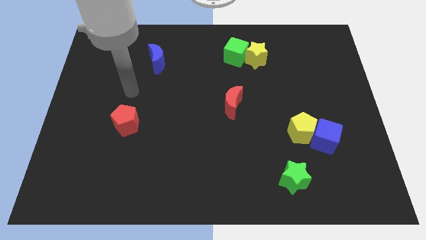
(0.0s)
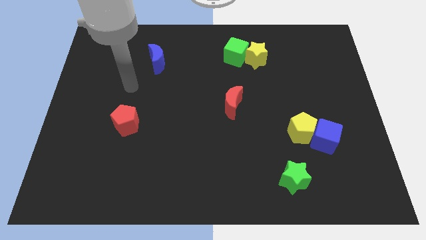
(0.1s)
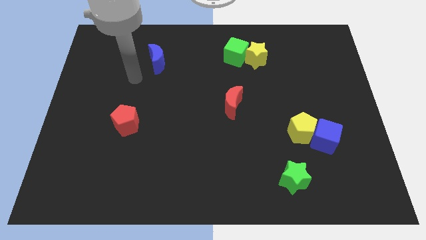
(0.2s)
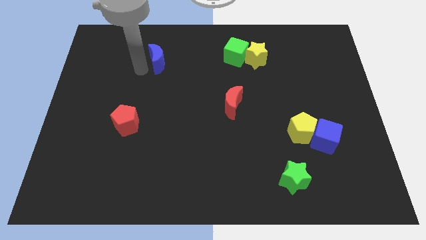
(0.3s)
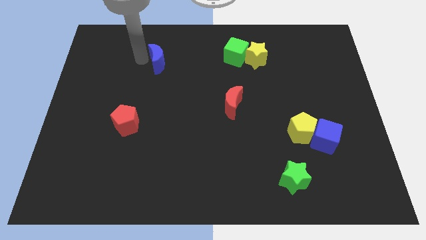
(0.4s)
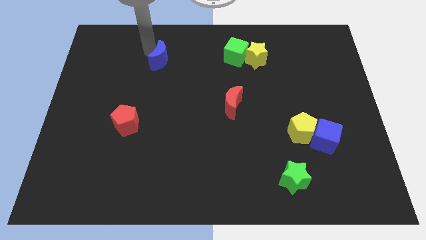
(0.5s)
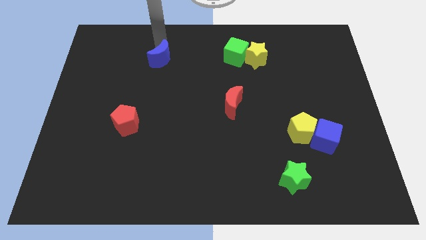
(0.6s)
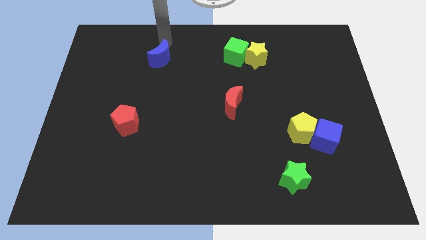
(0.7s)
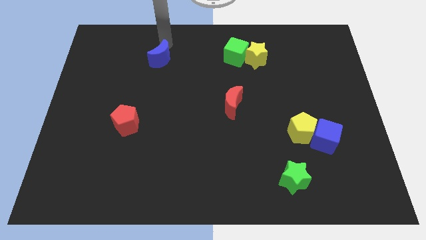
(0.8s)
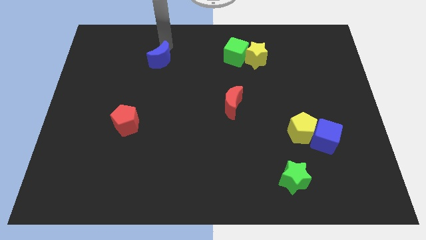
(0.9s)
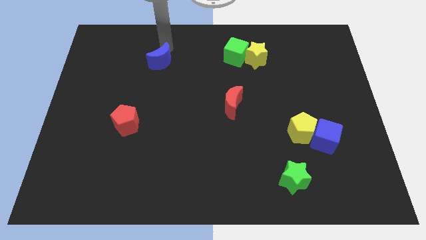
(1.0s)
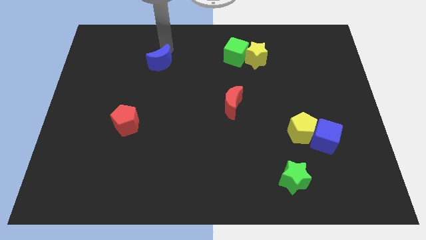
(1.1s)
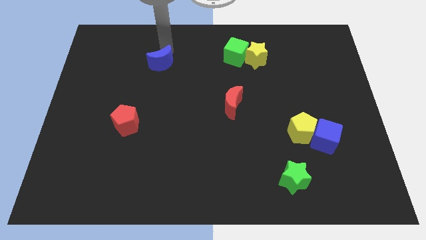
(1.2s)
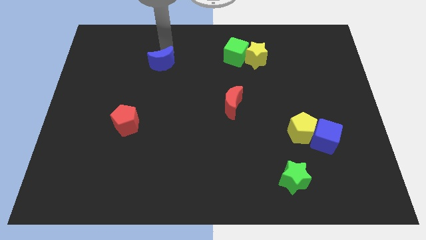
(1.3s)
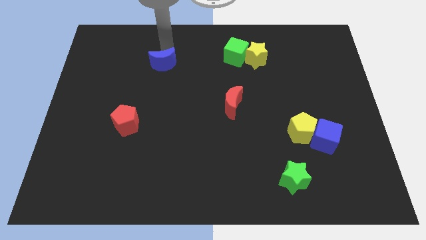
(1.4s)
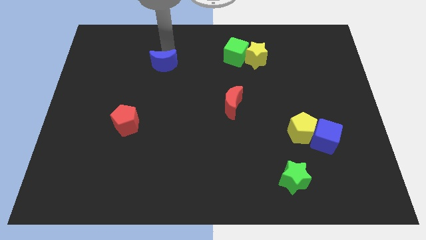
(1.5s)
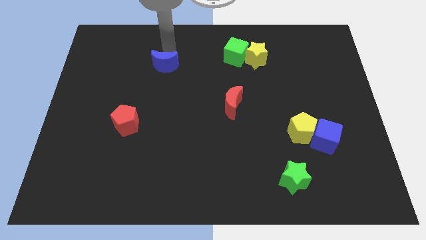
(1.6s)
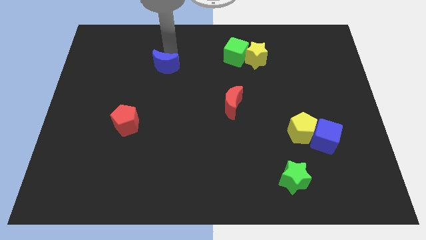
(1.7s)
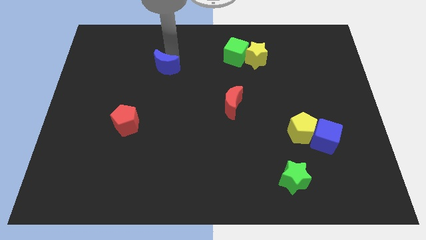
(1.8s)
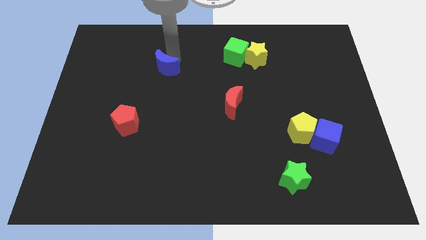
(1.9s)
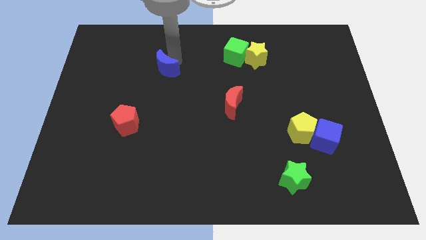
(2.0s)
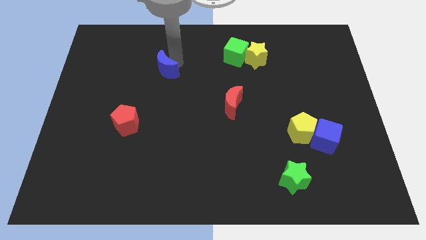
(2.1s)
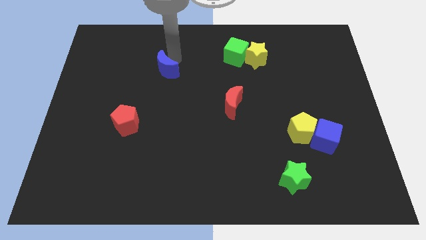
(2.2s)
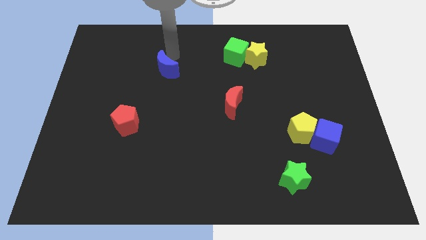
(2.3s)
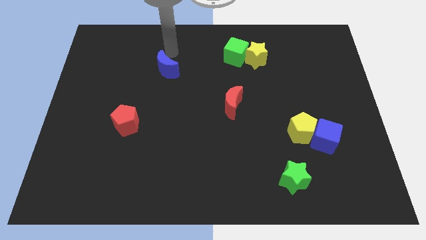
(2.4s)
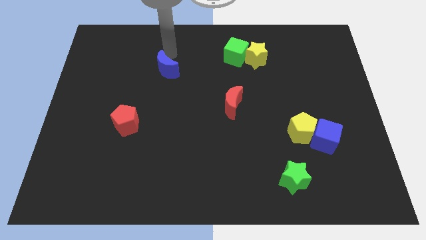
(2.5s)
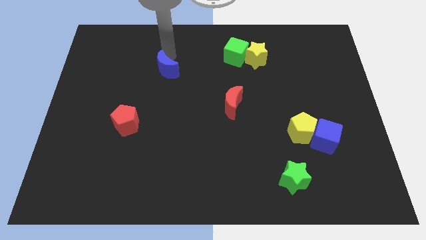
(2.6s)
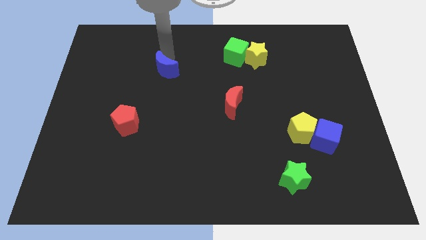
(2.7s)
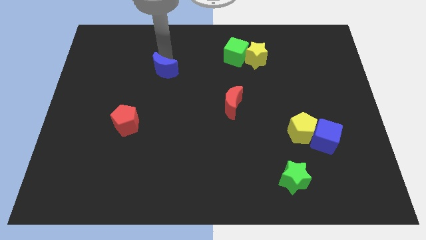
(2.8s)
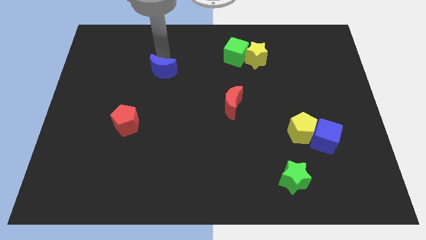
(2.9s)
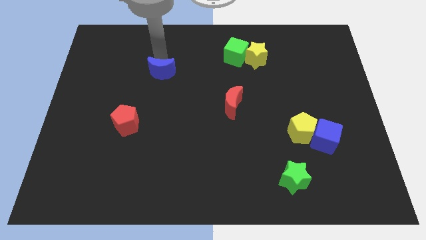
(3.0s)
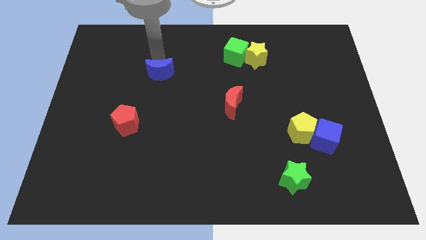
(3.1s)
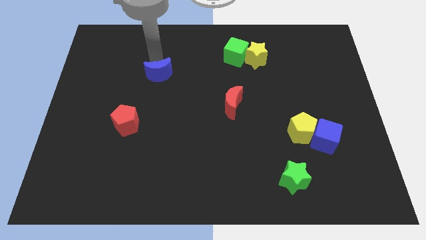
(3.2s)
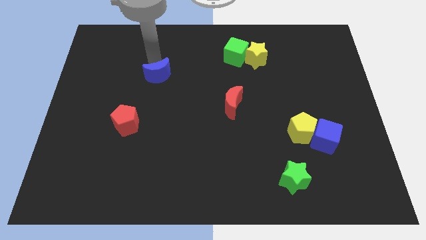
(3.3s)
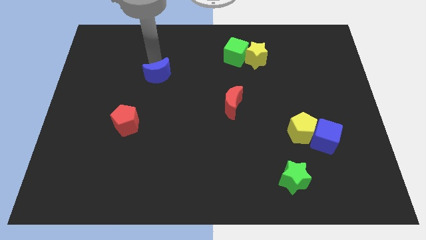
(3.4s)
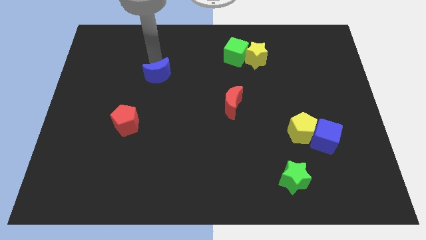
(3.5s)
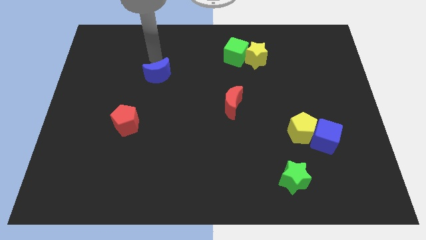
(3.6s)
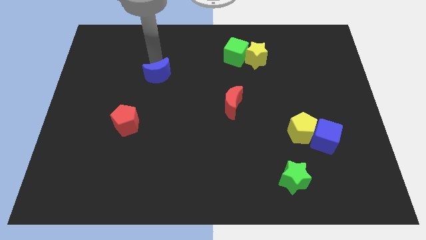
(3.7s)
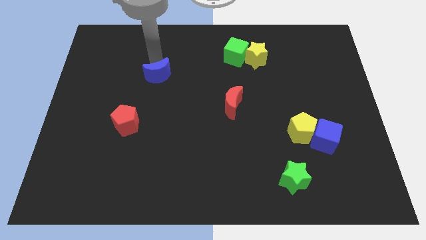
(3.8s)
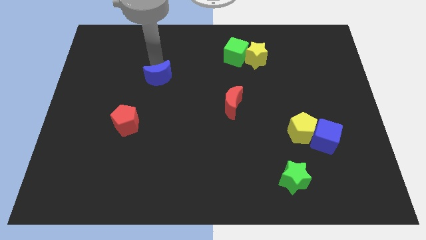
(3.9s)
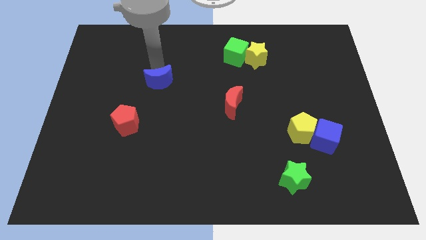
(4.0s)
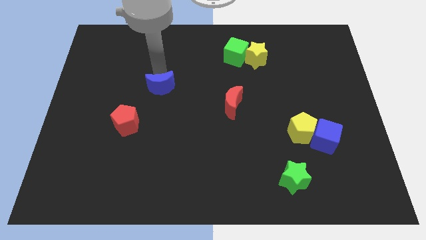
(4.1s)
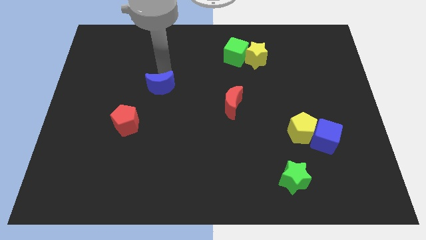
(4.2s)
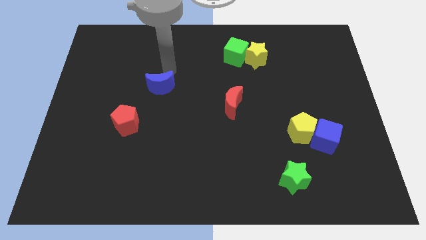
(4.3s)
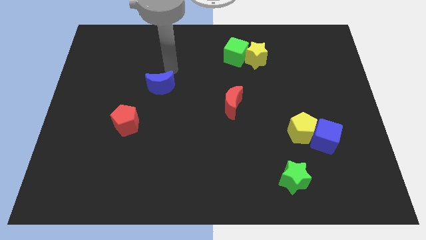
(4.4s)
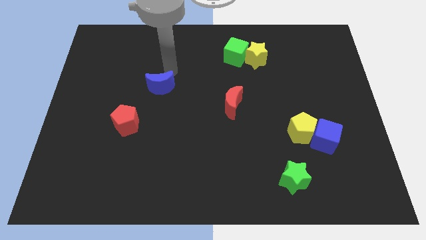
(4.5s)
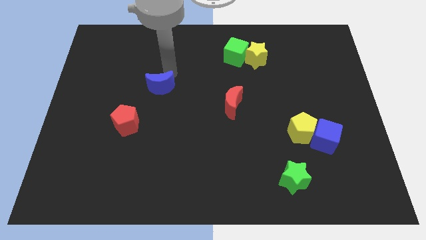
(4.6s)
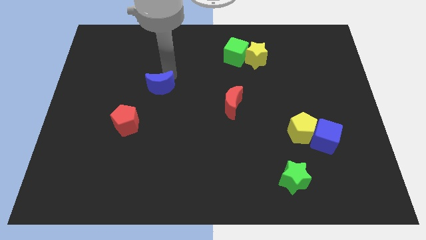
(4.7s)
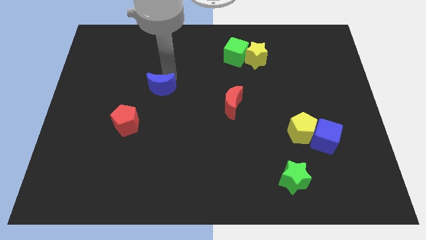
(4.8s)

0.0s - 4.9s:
slide the blue moon to the top right side of the red pentagon

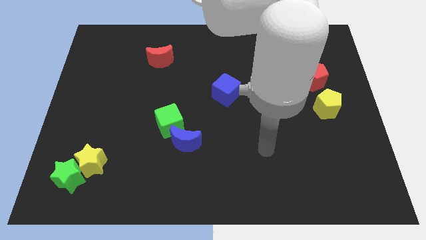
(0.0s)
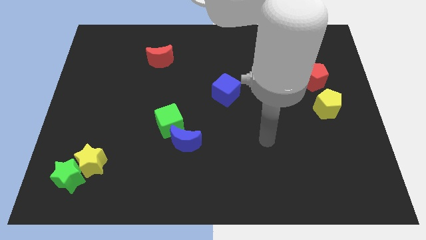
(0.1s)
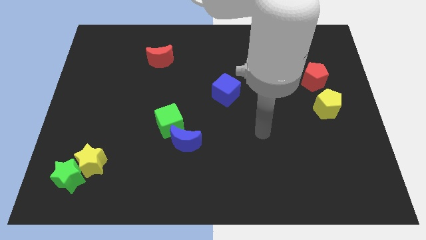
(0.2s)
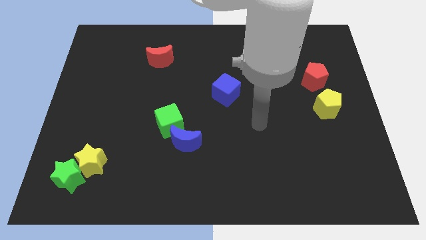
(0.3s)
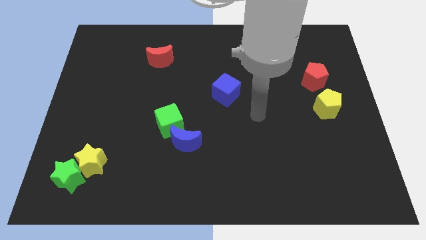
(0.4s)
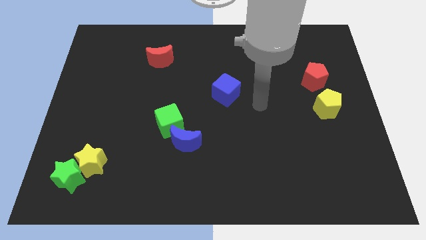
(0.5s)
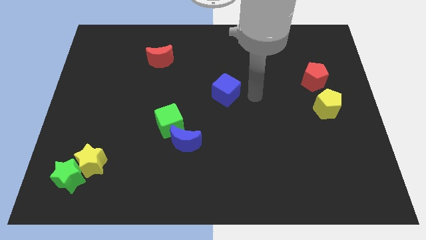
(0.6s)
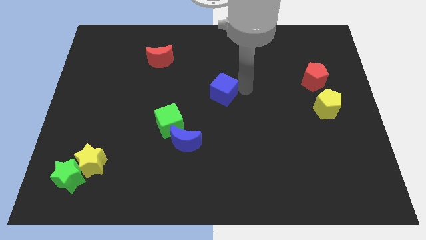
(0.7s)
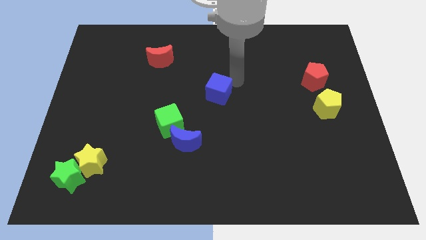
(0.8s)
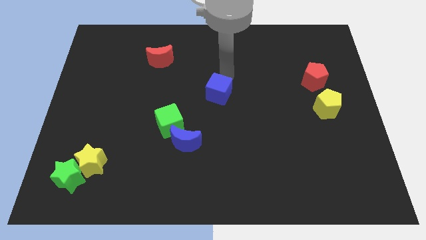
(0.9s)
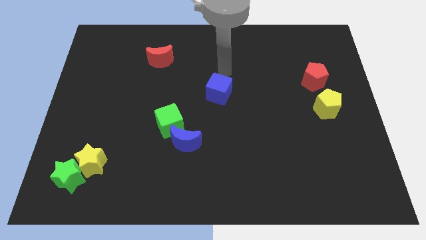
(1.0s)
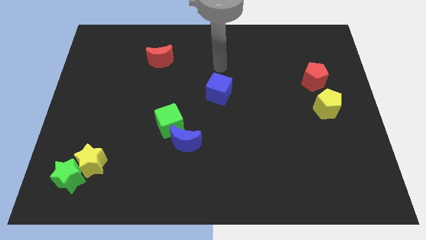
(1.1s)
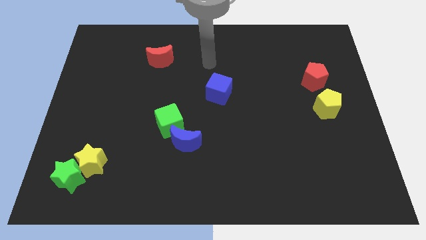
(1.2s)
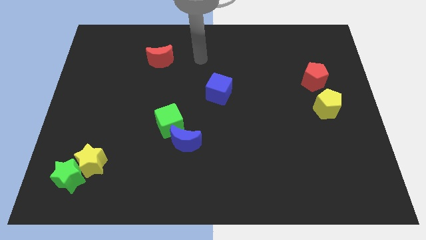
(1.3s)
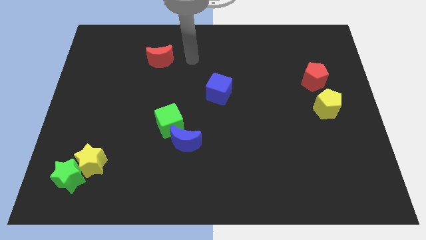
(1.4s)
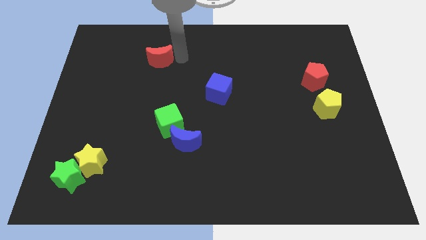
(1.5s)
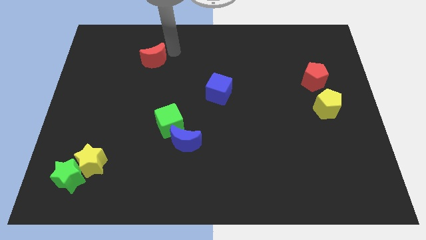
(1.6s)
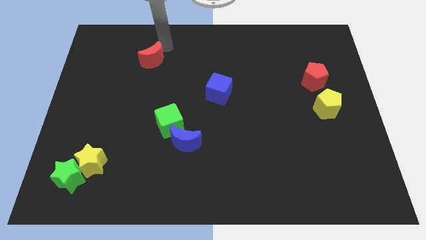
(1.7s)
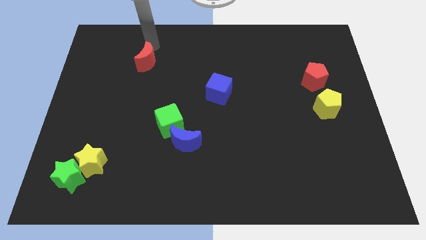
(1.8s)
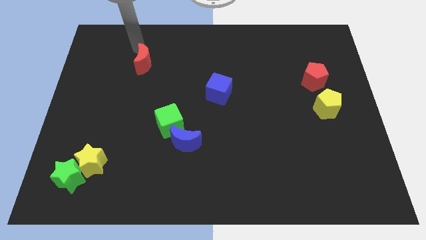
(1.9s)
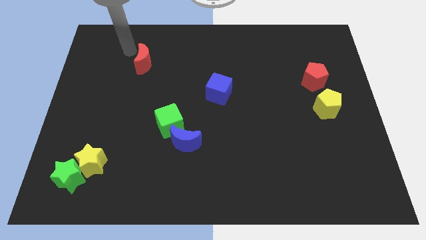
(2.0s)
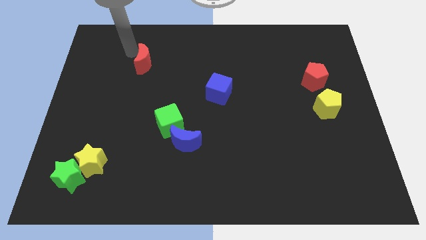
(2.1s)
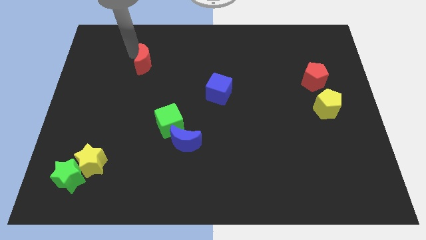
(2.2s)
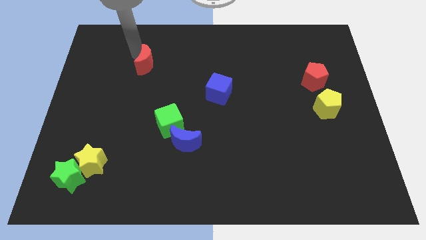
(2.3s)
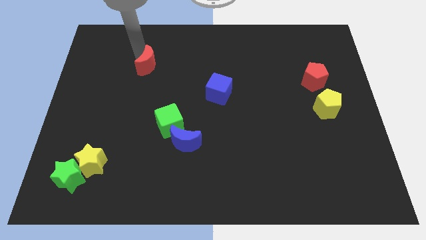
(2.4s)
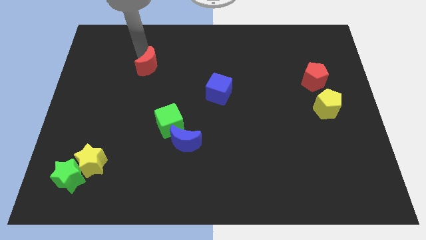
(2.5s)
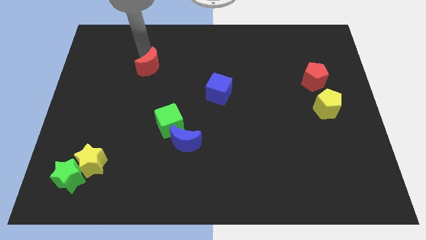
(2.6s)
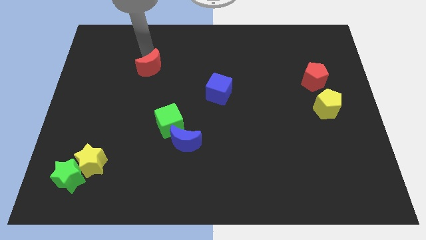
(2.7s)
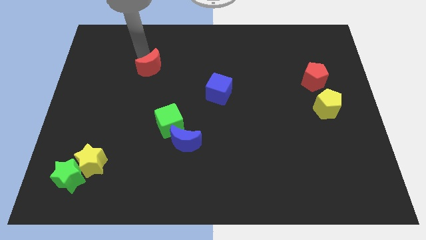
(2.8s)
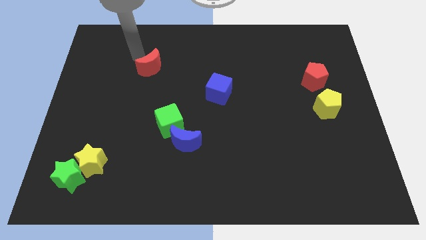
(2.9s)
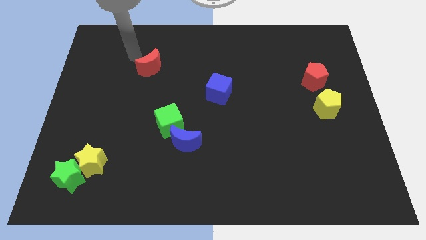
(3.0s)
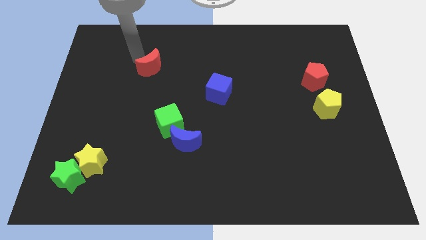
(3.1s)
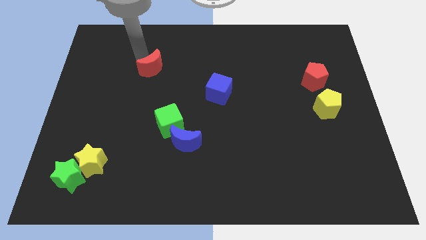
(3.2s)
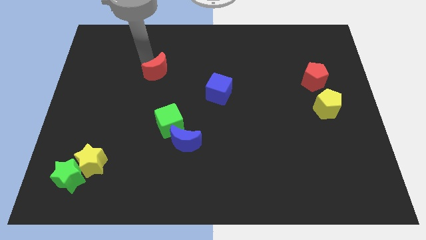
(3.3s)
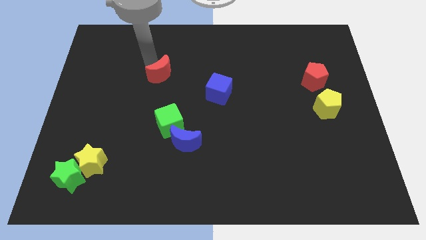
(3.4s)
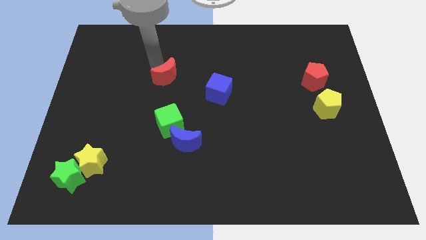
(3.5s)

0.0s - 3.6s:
push the red moon to the top of the green cube
